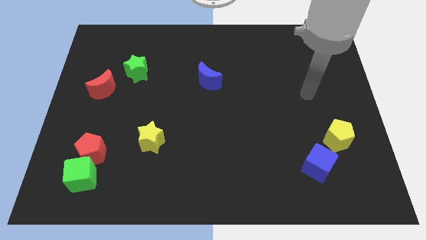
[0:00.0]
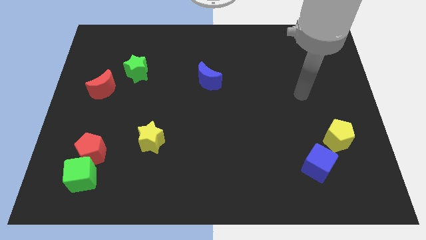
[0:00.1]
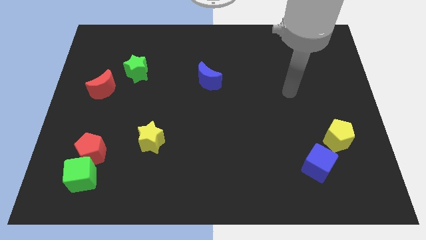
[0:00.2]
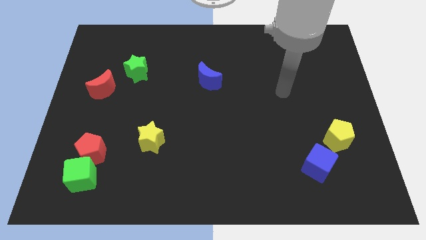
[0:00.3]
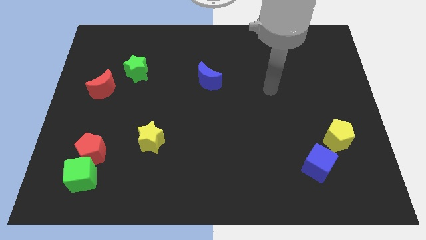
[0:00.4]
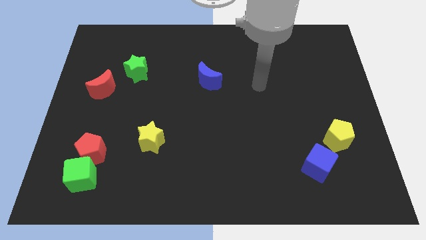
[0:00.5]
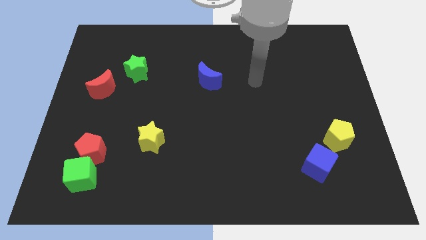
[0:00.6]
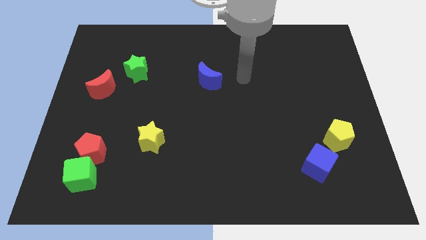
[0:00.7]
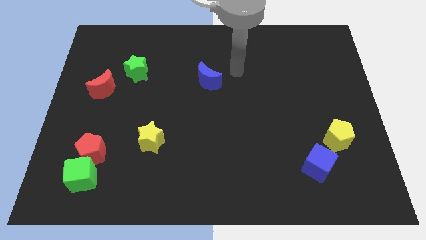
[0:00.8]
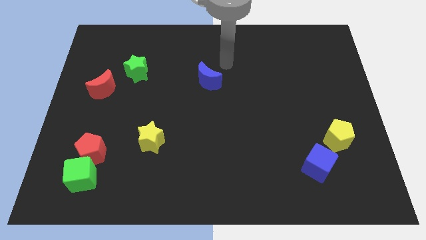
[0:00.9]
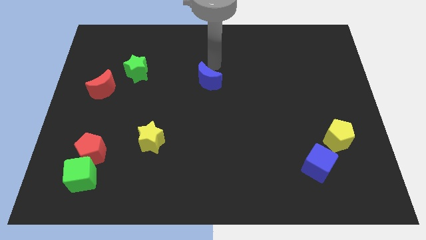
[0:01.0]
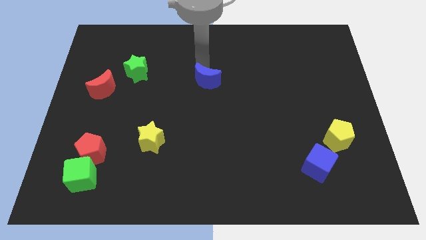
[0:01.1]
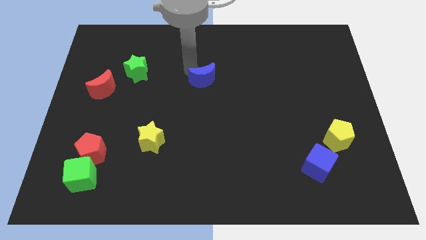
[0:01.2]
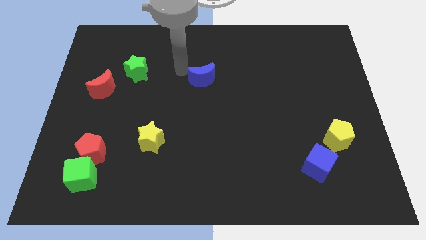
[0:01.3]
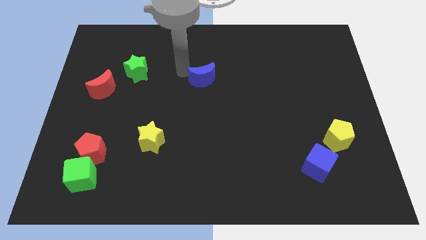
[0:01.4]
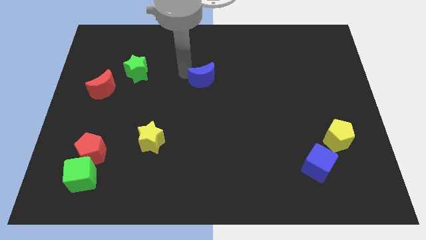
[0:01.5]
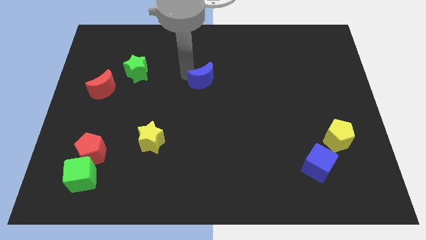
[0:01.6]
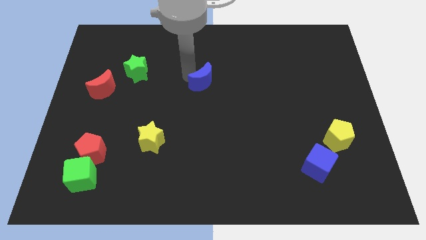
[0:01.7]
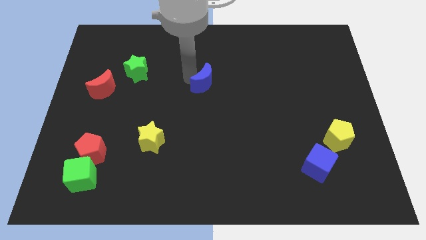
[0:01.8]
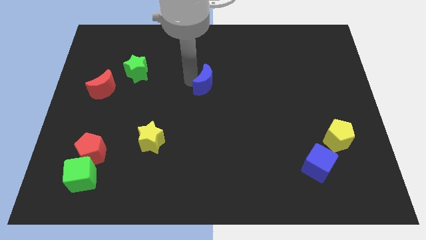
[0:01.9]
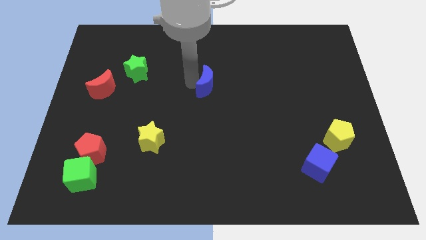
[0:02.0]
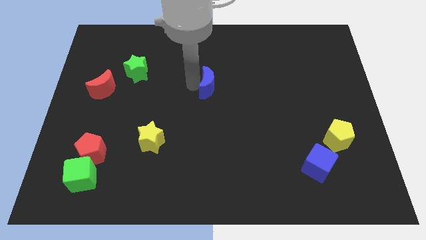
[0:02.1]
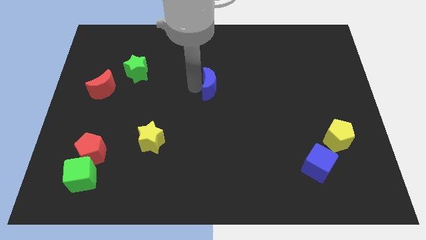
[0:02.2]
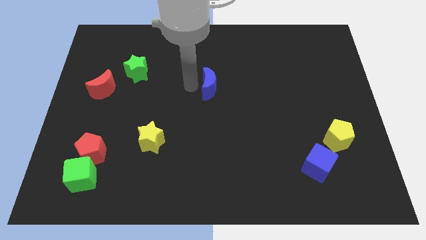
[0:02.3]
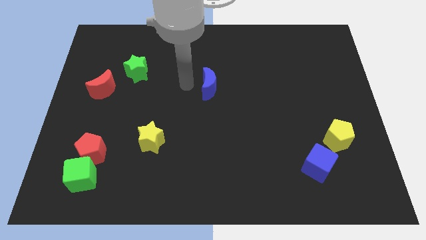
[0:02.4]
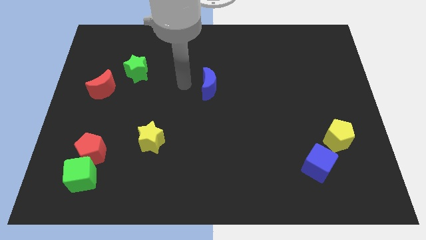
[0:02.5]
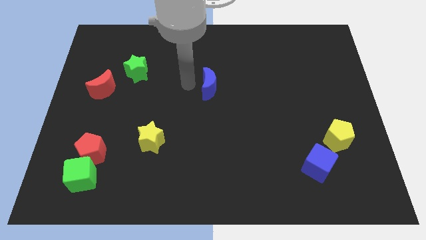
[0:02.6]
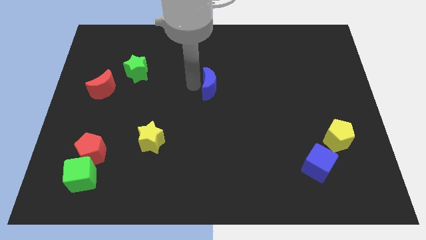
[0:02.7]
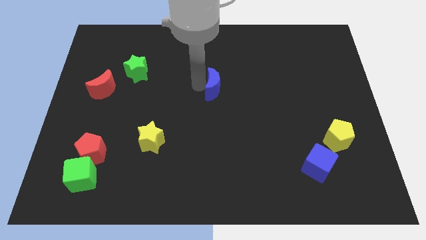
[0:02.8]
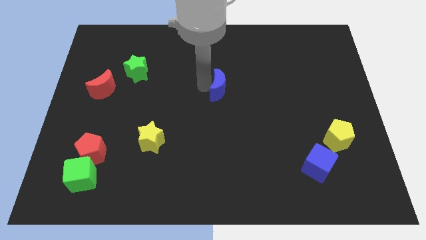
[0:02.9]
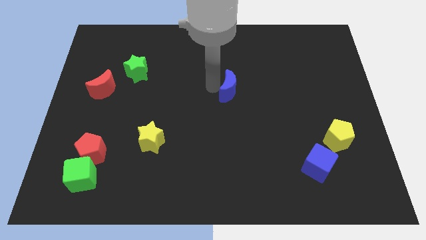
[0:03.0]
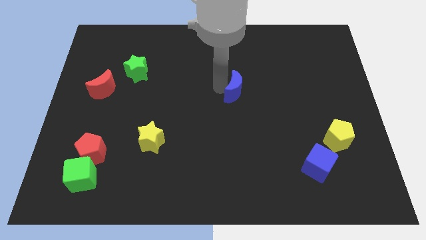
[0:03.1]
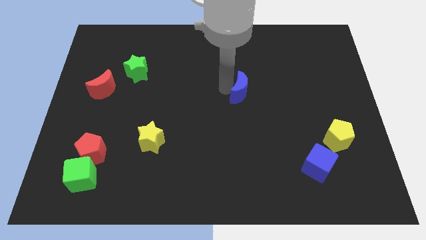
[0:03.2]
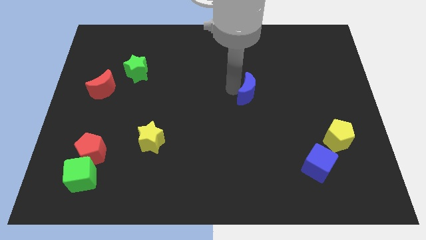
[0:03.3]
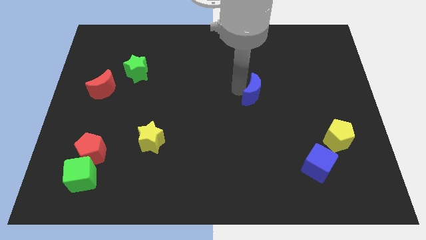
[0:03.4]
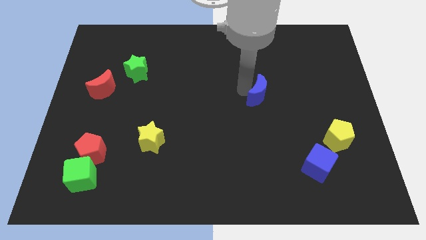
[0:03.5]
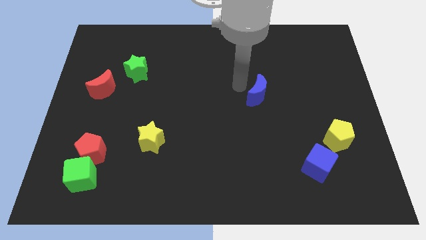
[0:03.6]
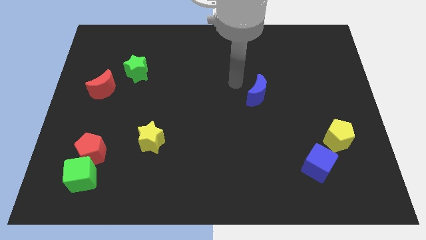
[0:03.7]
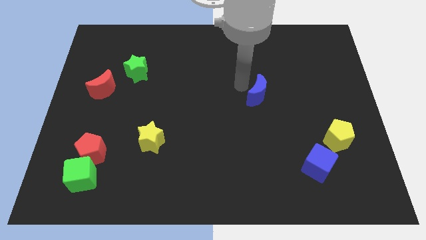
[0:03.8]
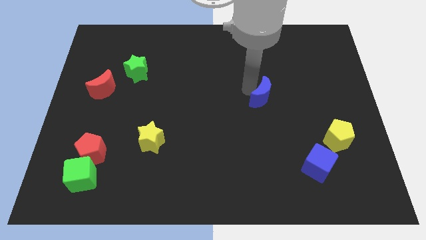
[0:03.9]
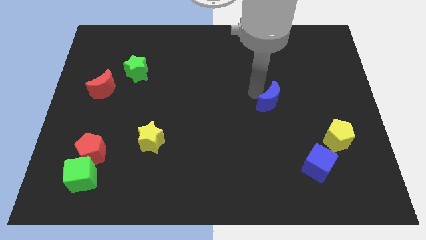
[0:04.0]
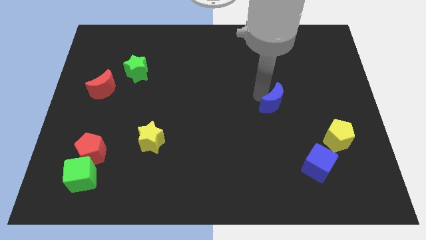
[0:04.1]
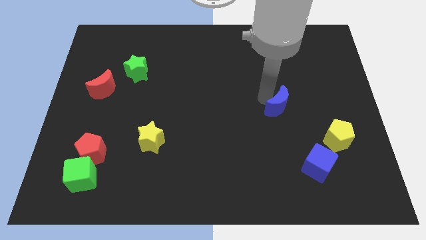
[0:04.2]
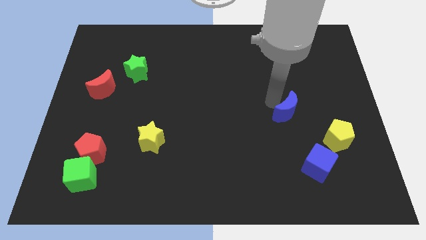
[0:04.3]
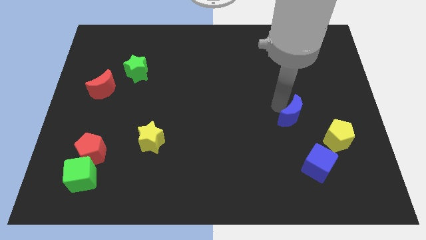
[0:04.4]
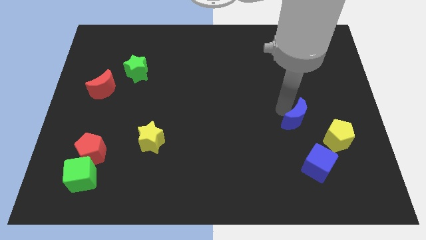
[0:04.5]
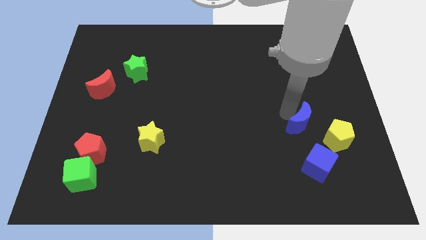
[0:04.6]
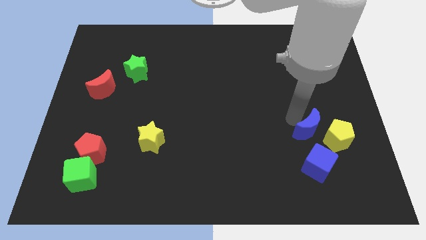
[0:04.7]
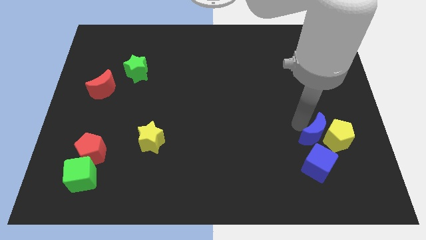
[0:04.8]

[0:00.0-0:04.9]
push the blue moon next to the yellow pentagon

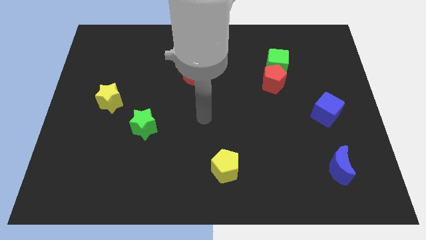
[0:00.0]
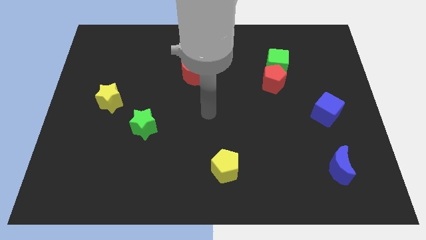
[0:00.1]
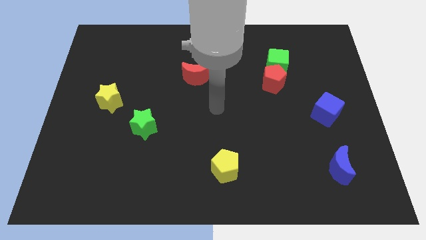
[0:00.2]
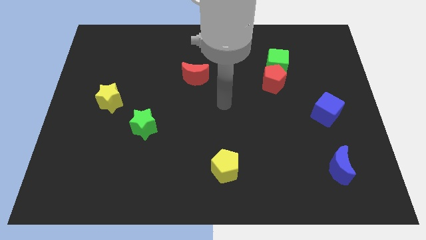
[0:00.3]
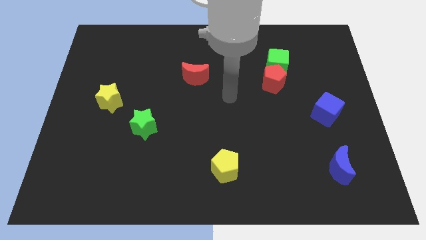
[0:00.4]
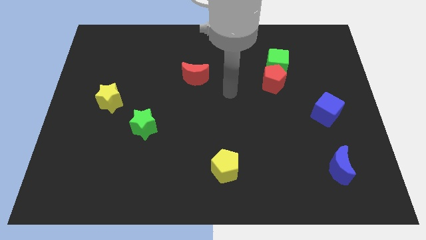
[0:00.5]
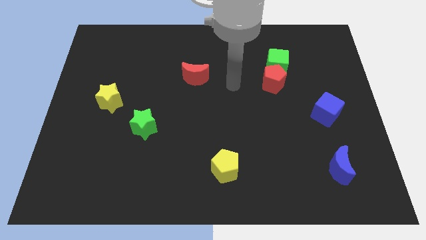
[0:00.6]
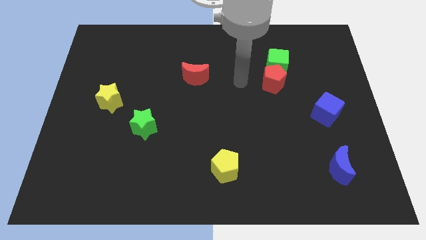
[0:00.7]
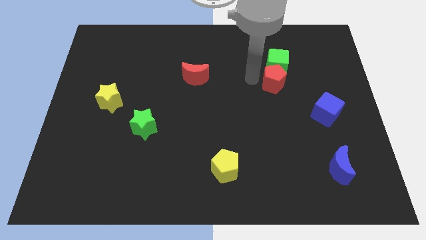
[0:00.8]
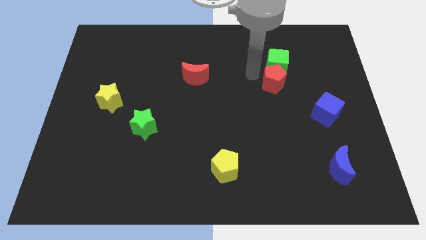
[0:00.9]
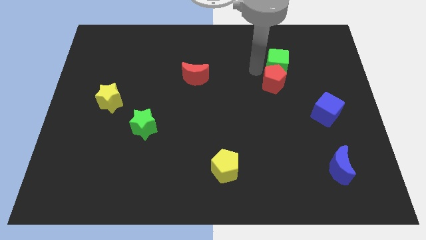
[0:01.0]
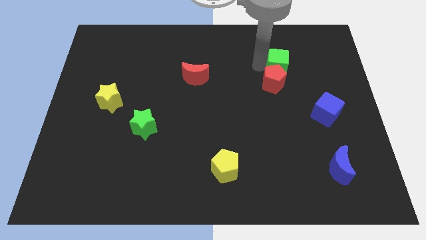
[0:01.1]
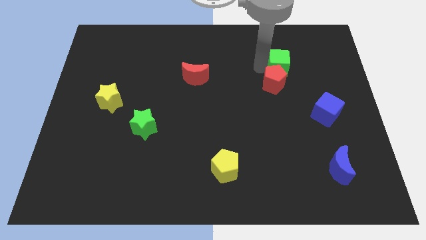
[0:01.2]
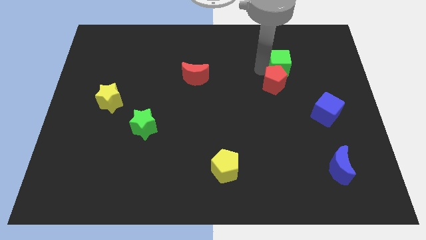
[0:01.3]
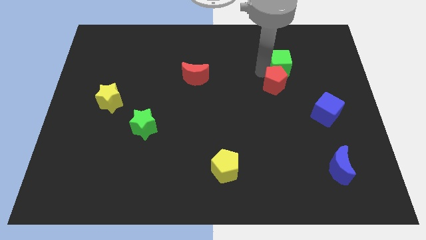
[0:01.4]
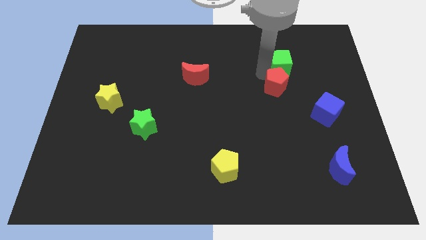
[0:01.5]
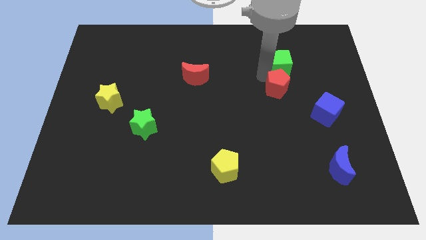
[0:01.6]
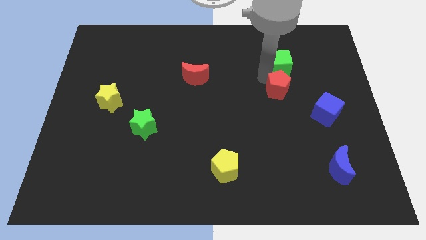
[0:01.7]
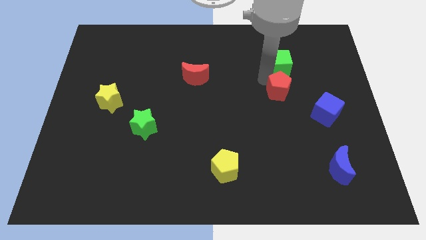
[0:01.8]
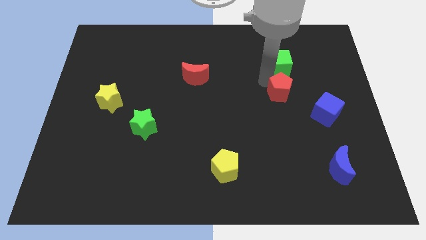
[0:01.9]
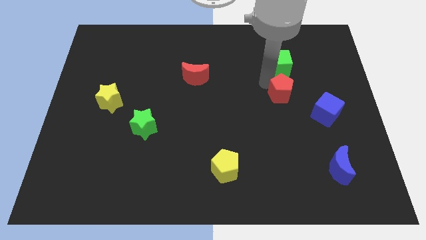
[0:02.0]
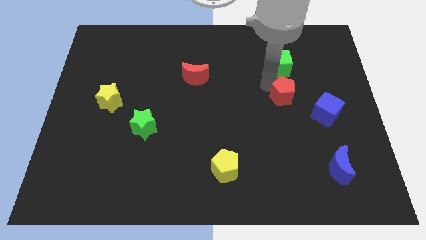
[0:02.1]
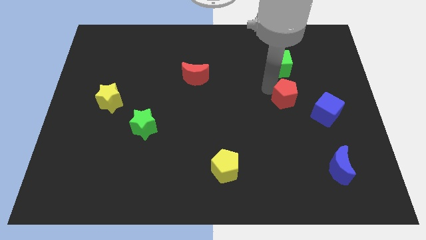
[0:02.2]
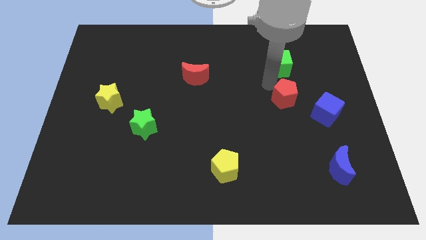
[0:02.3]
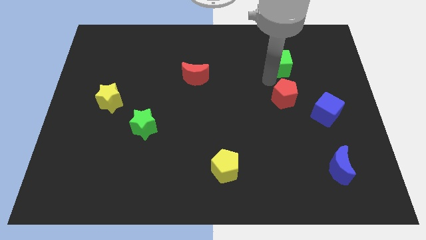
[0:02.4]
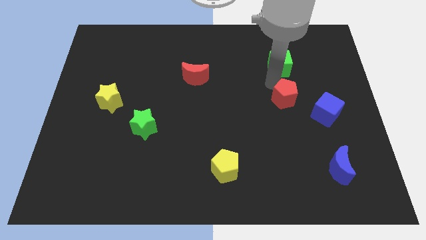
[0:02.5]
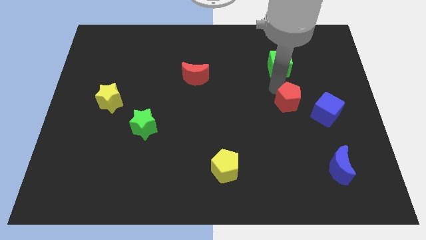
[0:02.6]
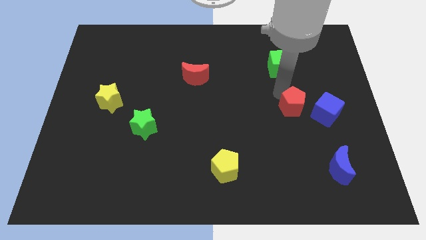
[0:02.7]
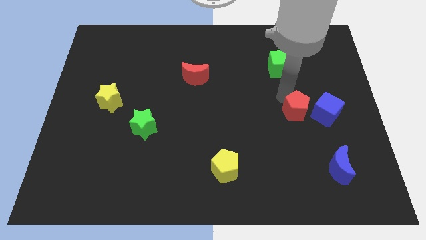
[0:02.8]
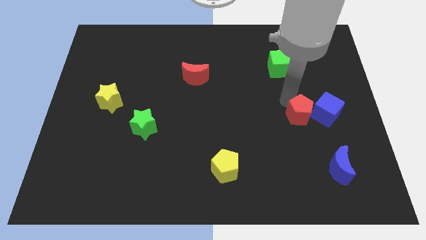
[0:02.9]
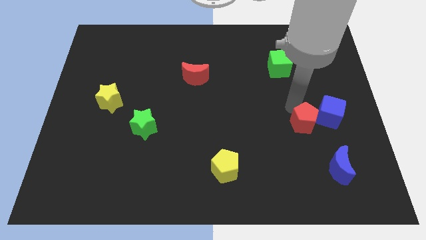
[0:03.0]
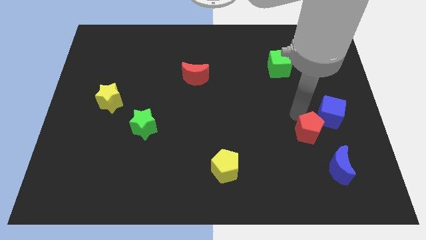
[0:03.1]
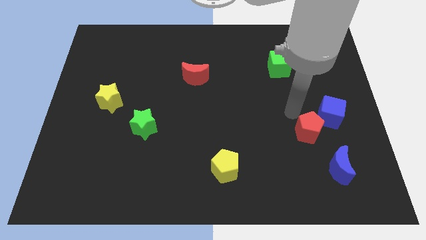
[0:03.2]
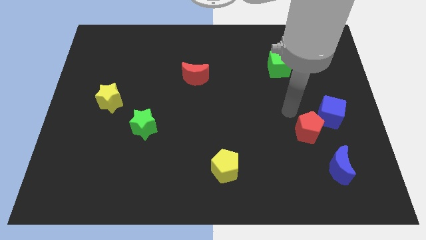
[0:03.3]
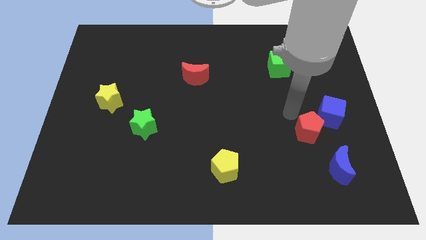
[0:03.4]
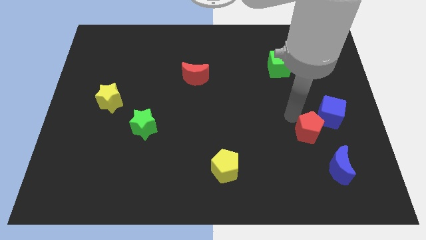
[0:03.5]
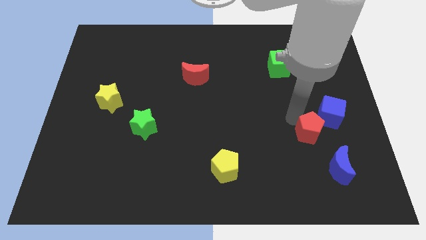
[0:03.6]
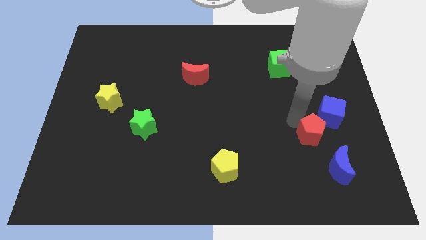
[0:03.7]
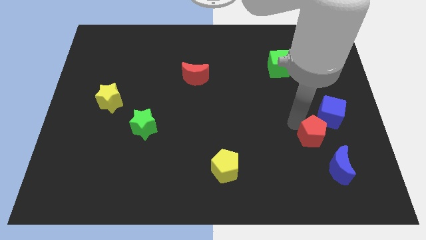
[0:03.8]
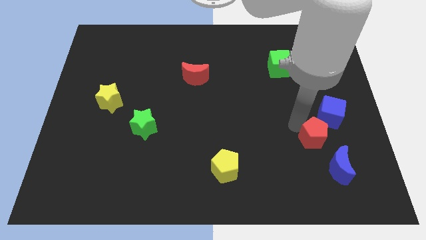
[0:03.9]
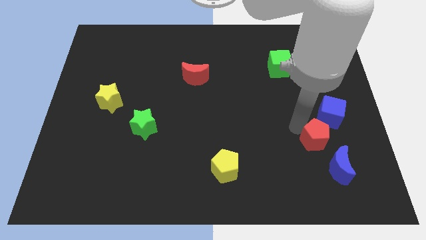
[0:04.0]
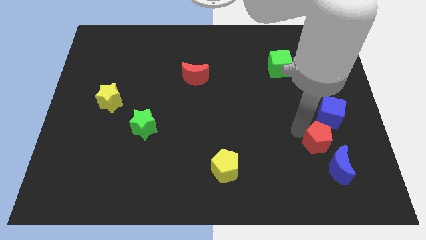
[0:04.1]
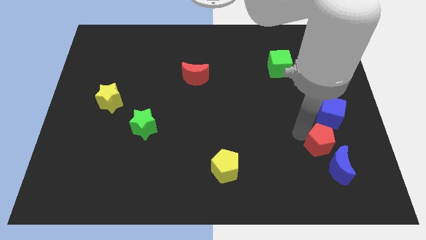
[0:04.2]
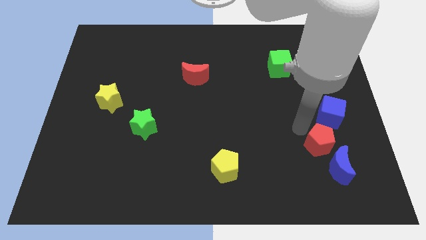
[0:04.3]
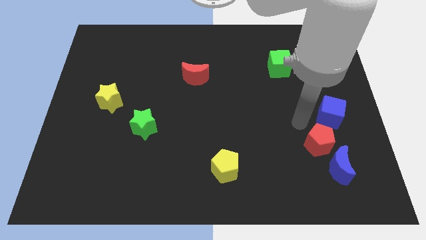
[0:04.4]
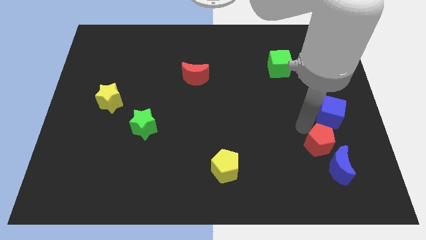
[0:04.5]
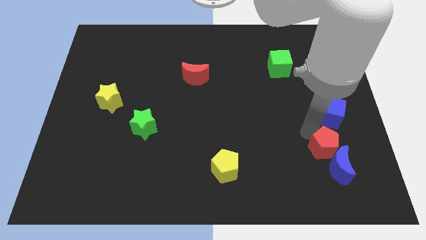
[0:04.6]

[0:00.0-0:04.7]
put the red pentagon close to the blue moon
